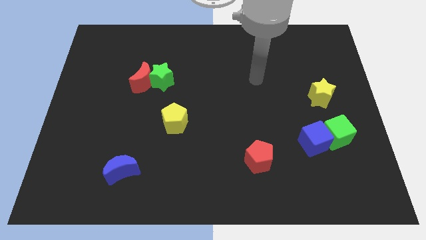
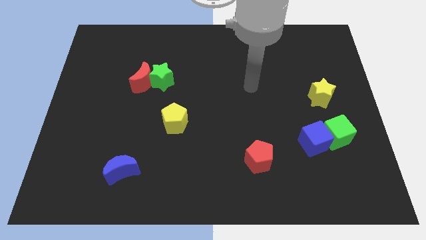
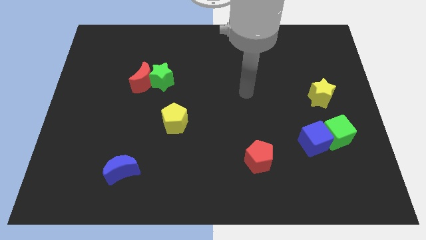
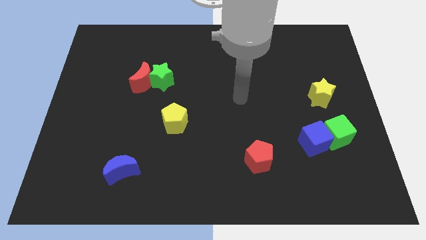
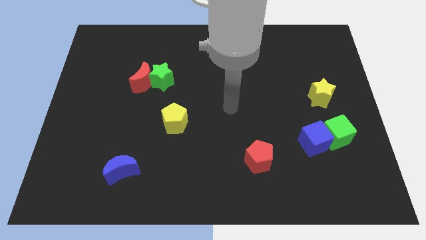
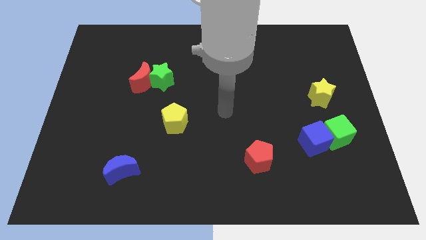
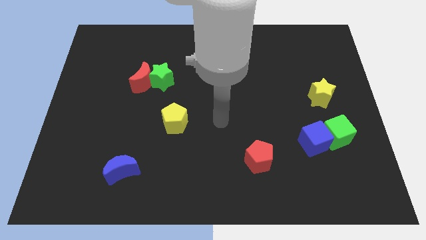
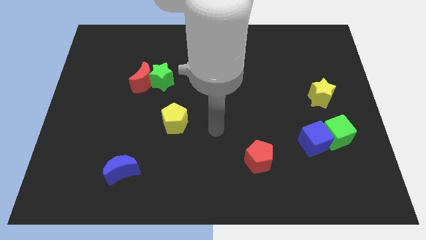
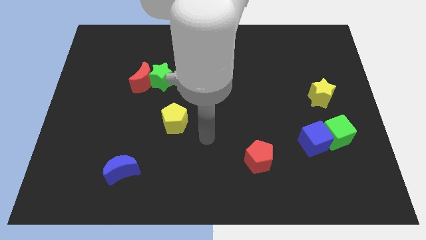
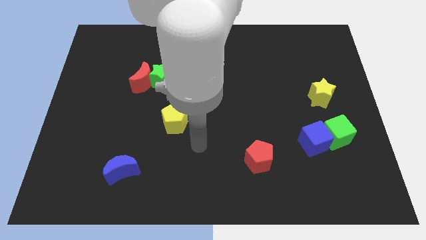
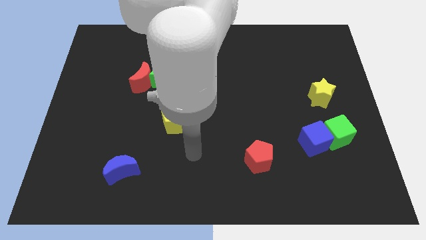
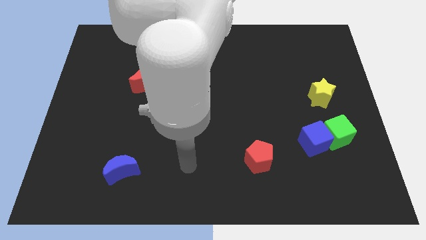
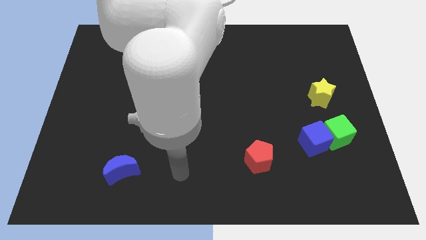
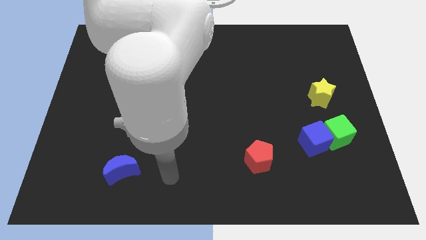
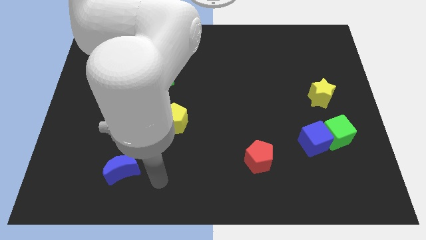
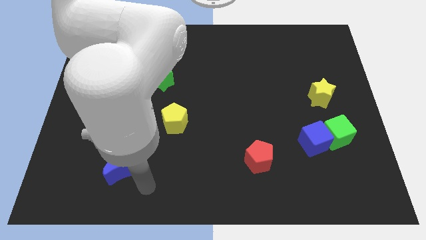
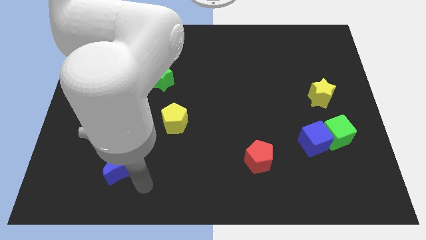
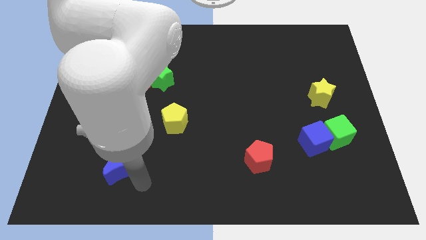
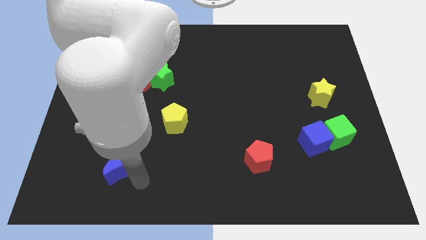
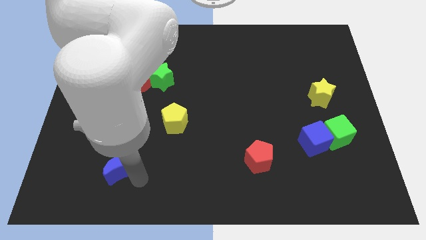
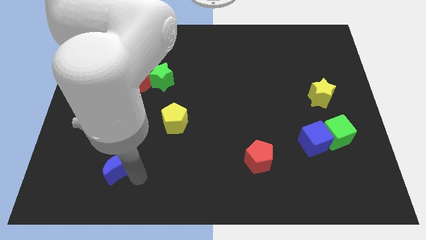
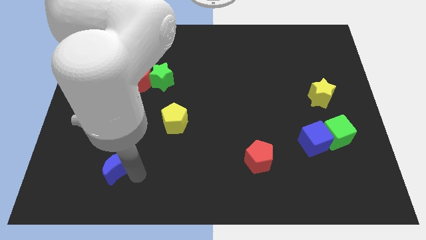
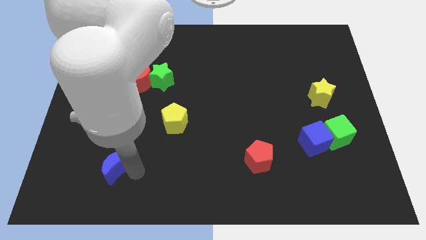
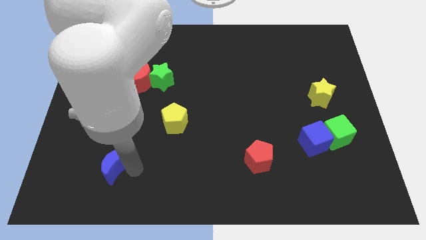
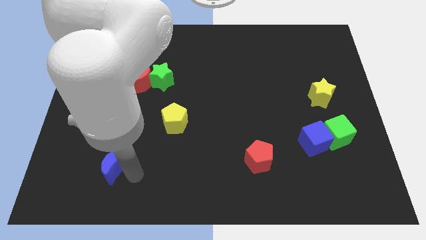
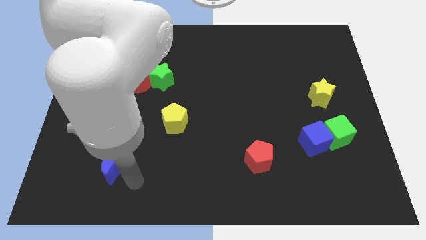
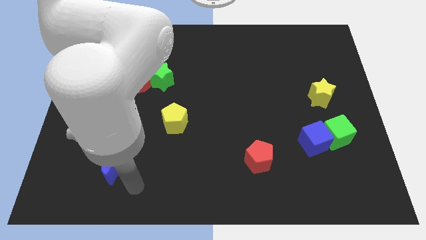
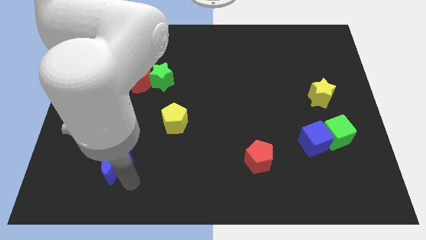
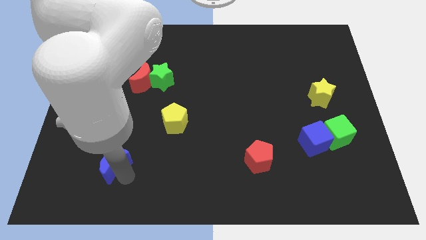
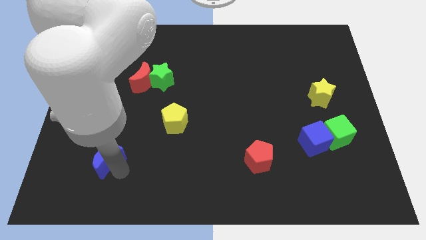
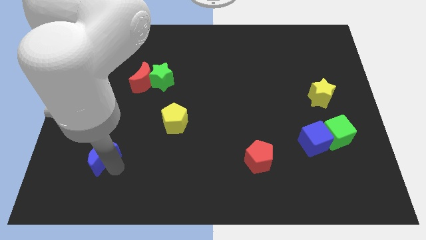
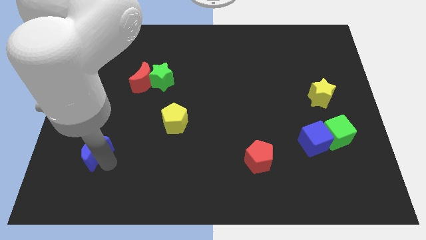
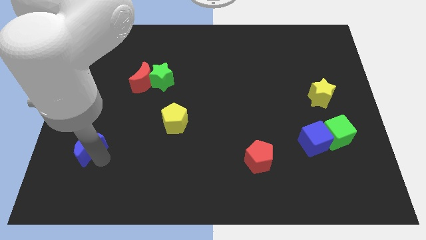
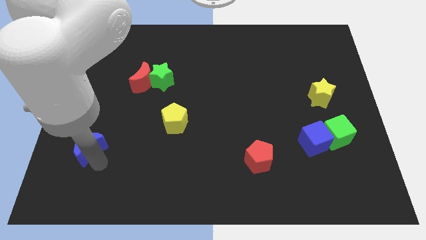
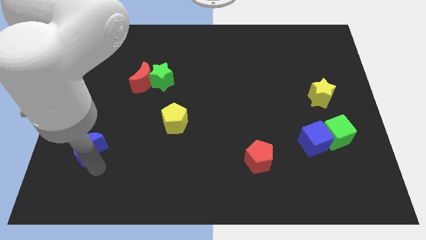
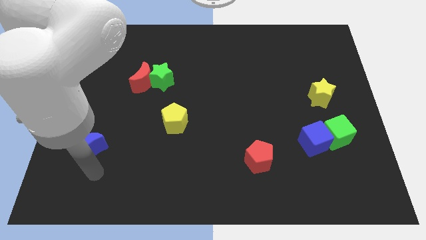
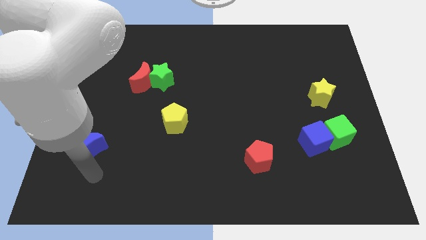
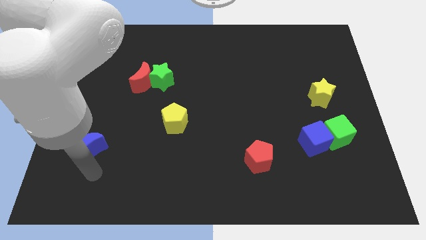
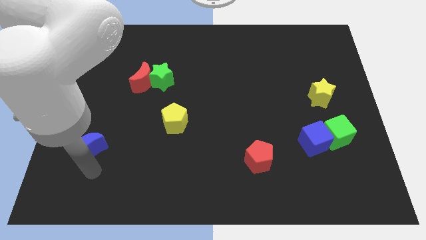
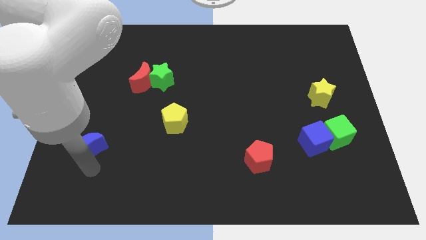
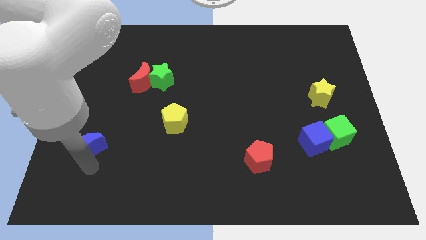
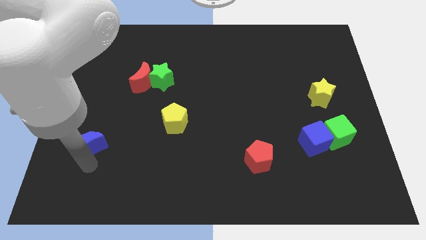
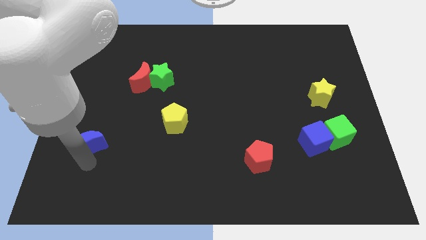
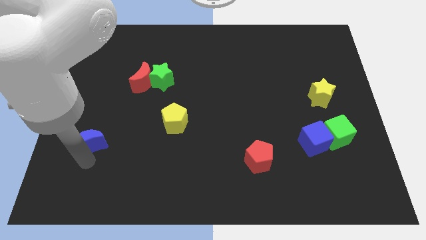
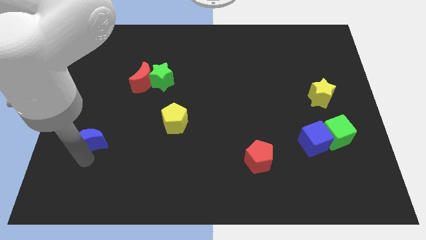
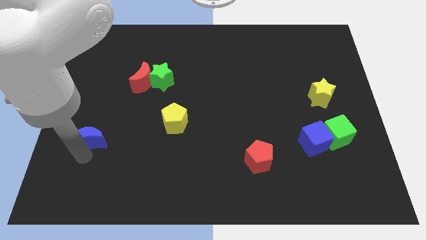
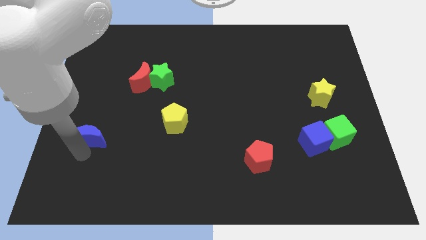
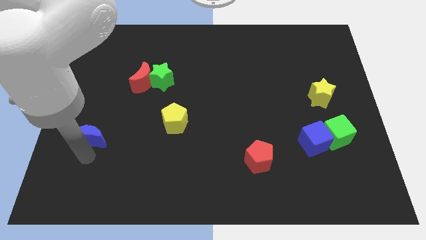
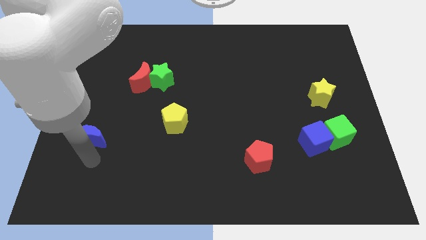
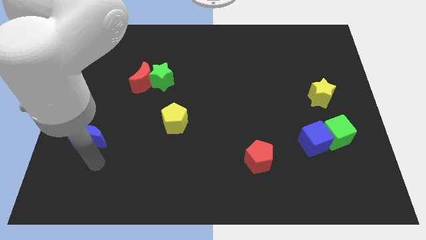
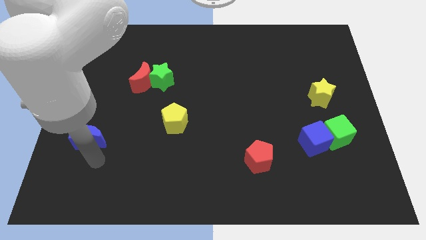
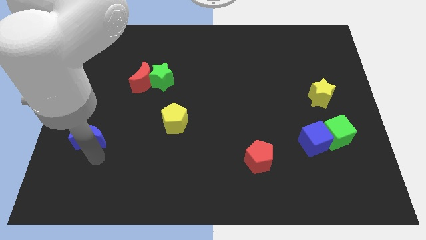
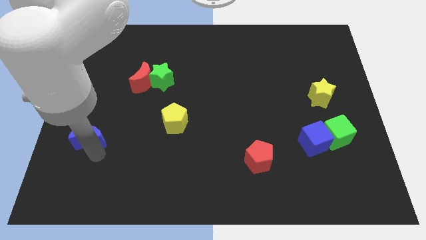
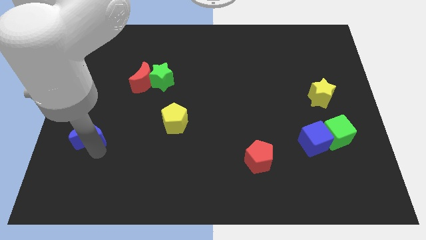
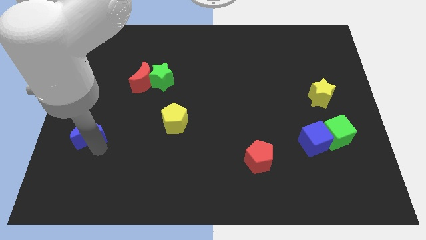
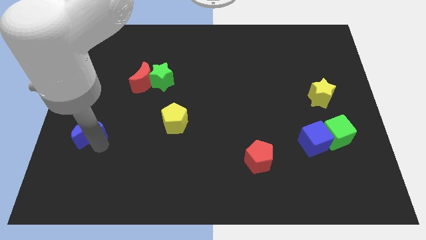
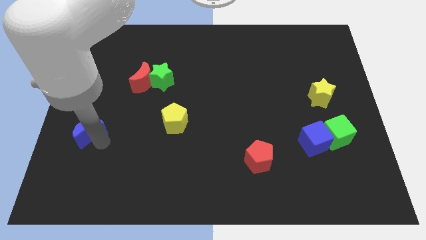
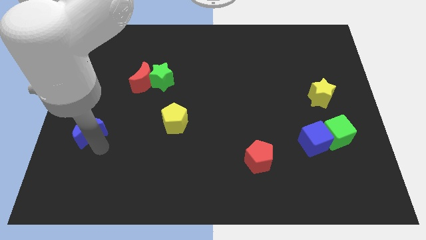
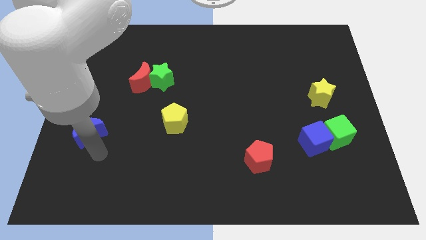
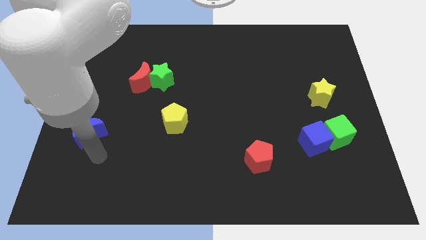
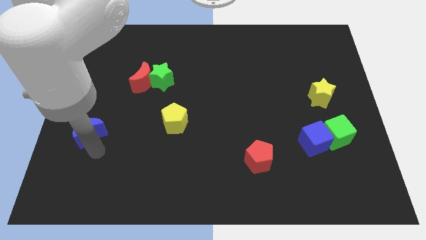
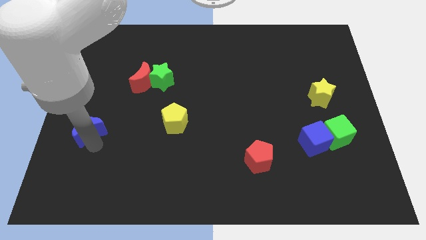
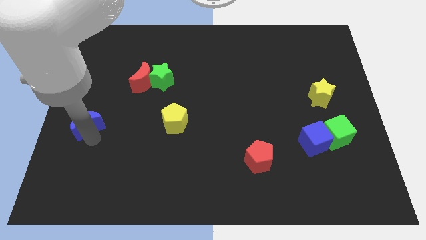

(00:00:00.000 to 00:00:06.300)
put the blue moon to the left side of the board
